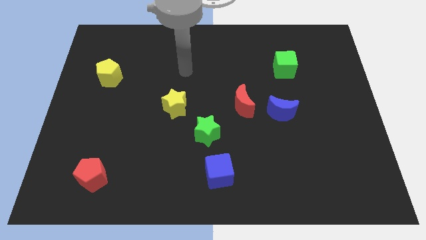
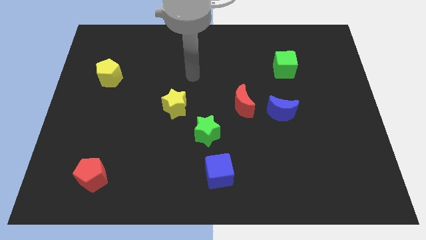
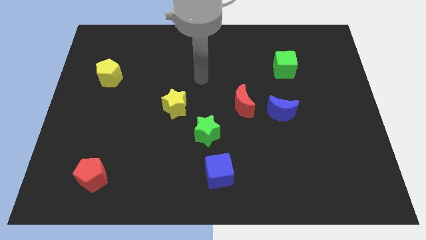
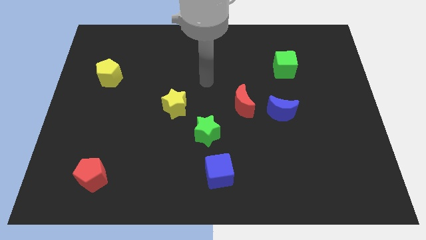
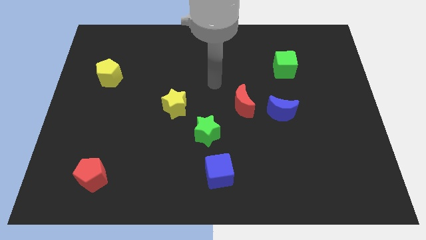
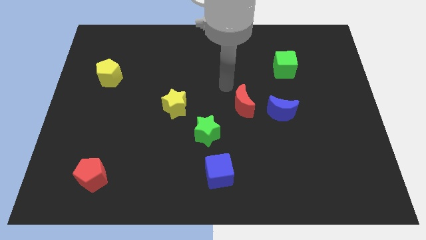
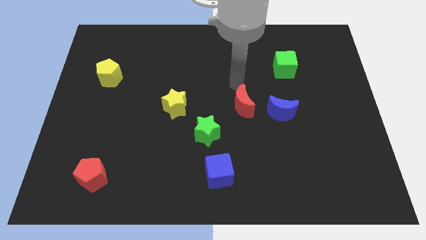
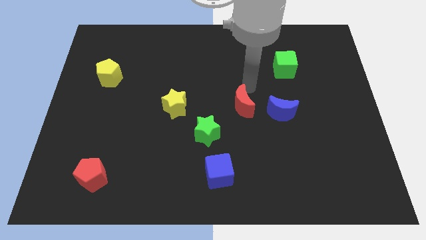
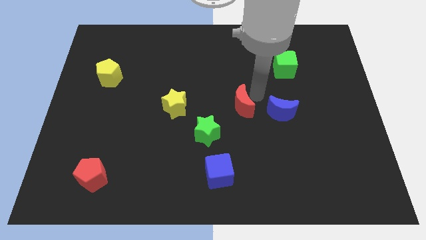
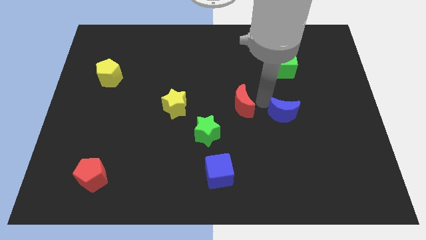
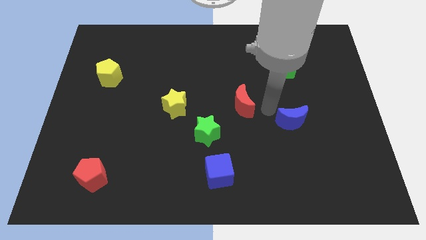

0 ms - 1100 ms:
separate the red moon from the blue moon

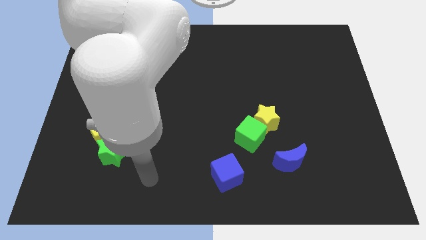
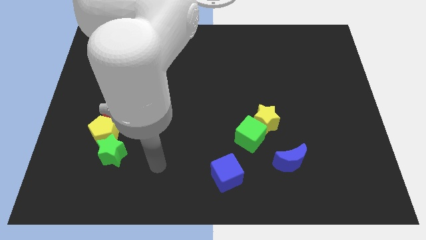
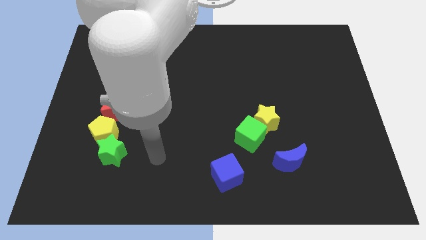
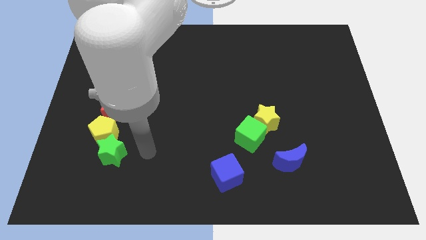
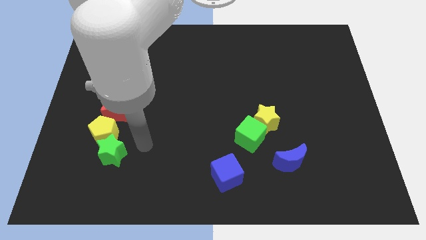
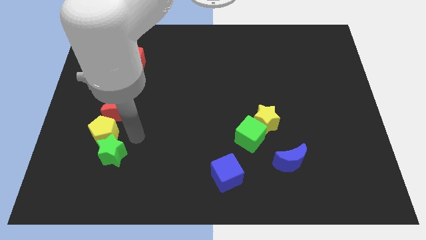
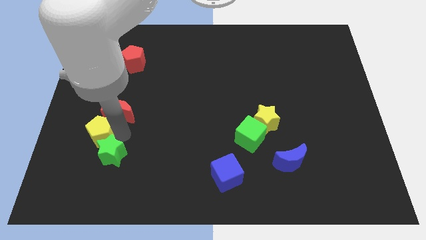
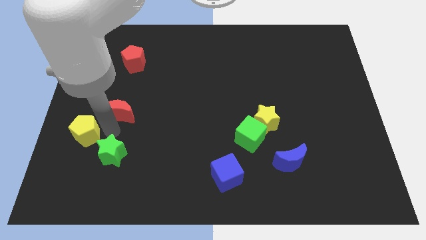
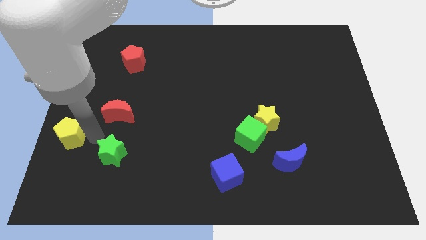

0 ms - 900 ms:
separate the green star from the yellow pentagon

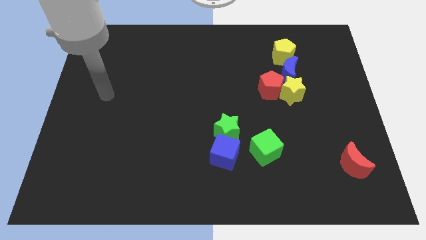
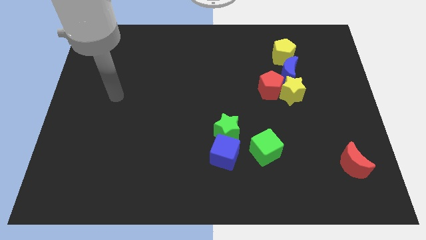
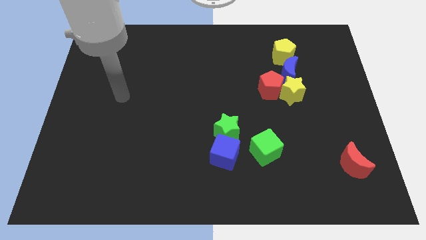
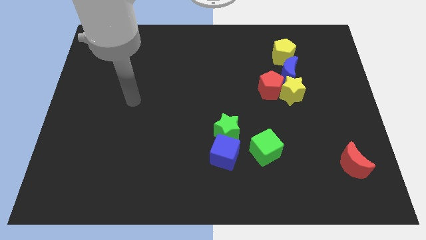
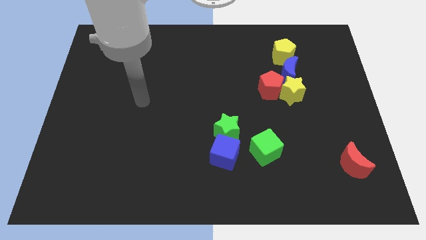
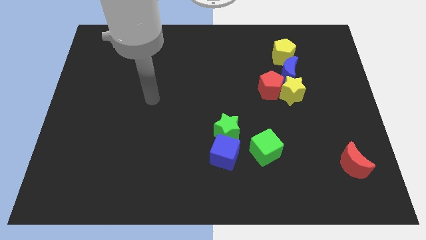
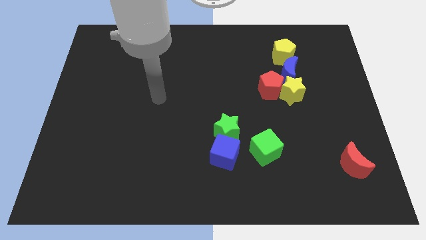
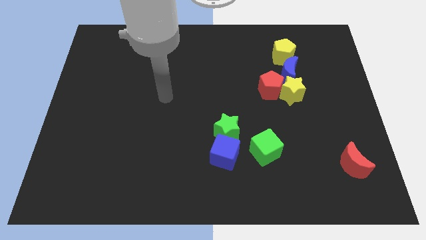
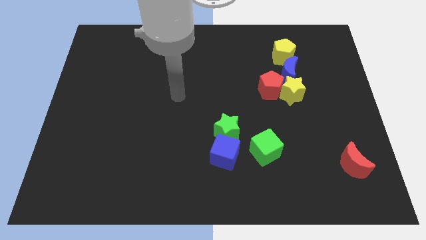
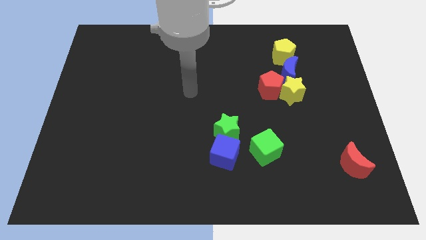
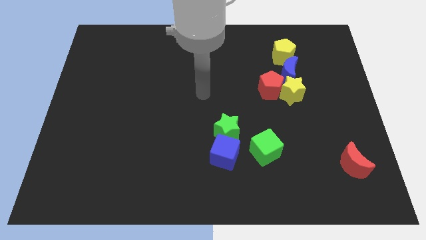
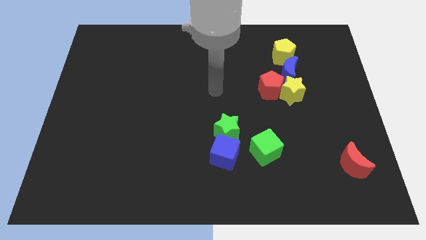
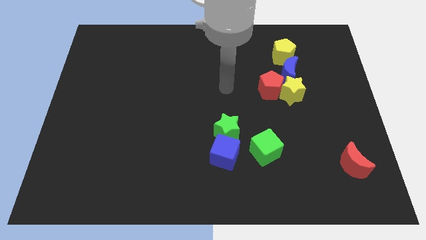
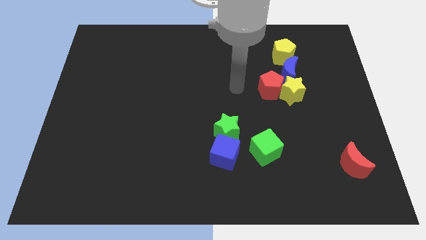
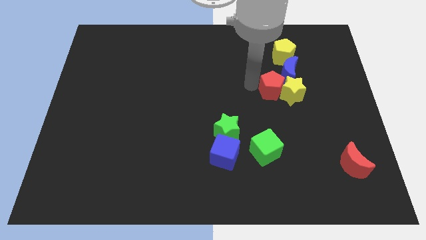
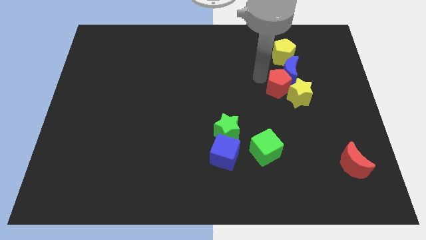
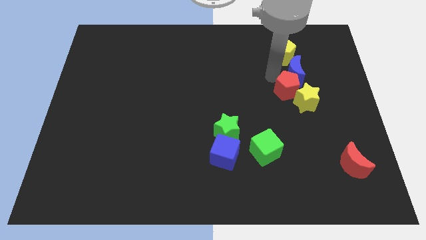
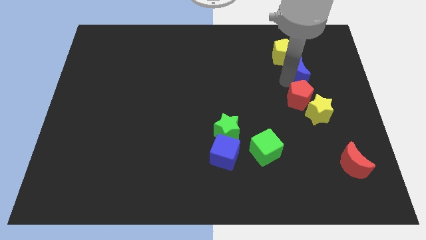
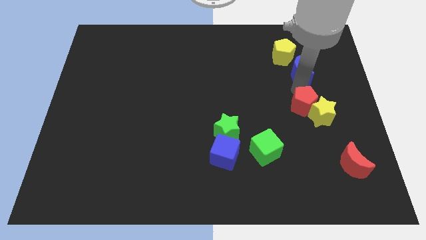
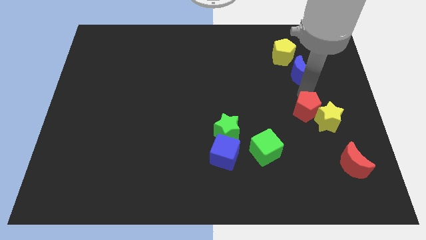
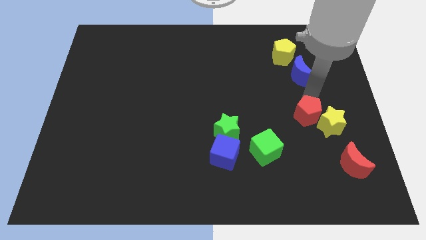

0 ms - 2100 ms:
separate the yellow star from the red pentagon and blue moon

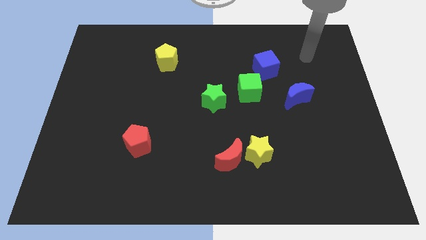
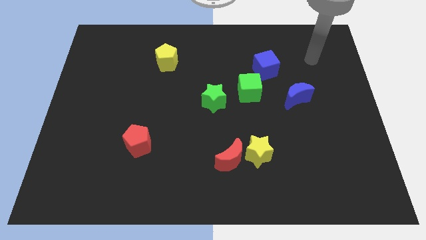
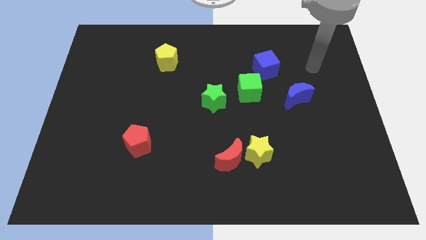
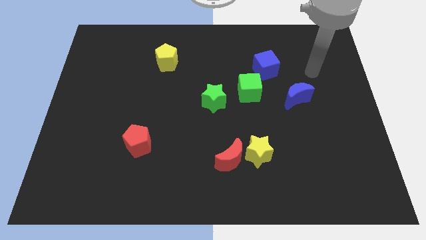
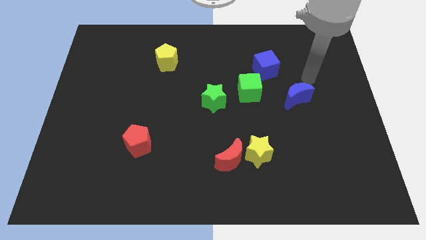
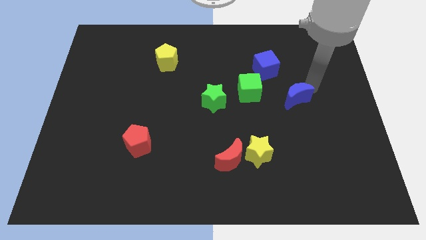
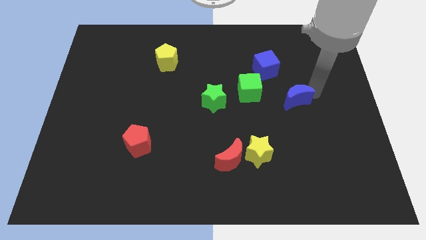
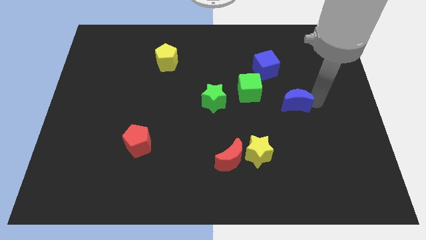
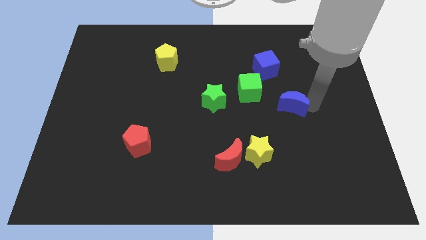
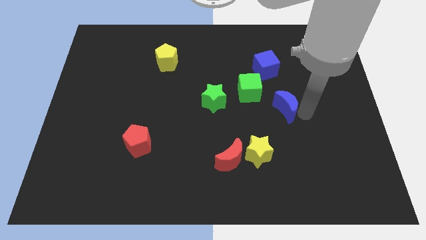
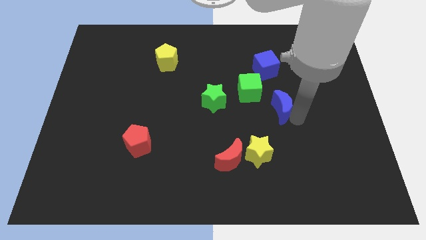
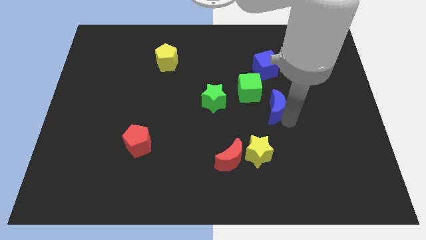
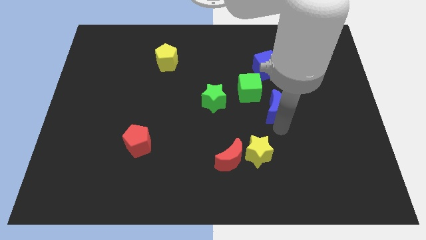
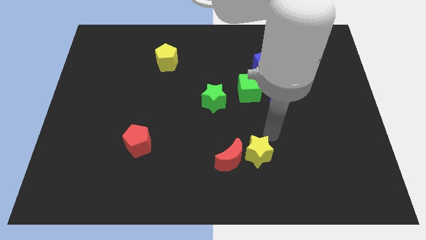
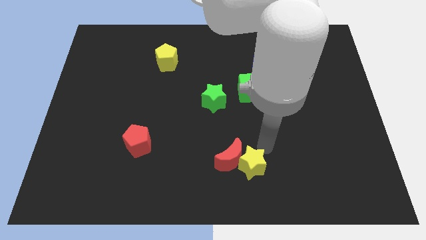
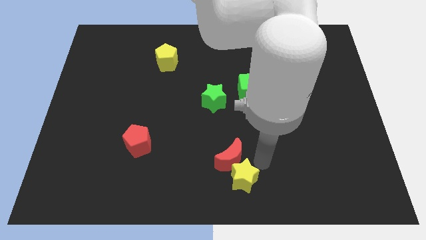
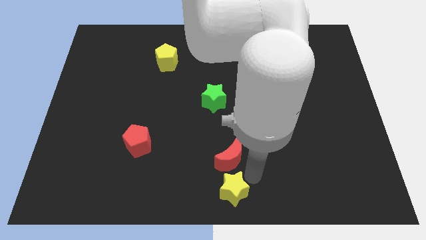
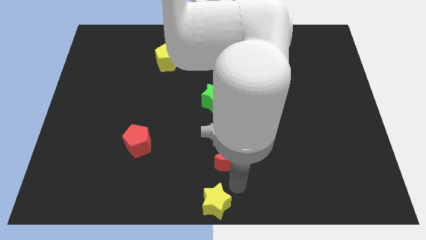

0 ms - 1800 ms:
move the red moon away from the yellow star

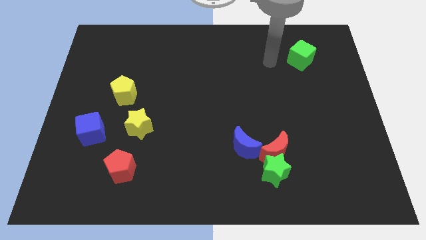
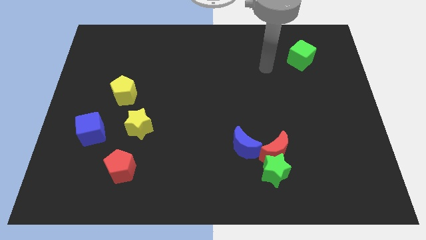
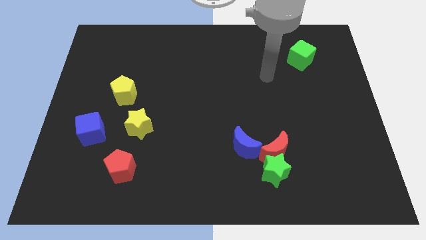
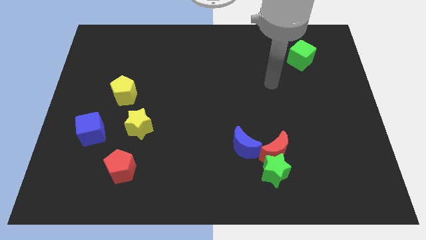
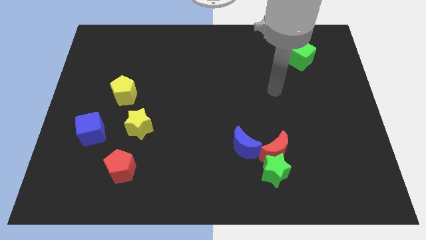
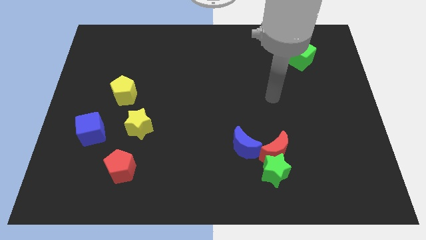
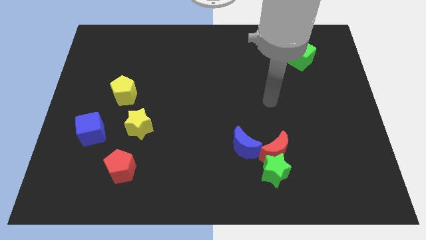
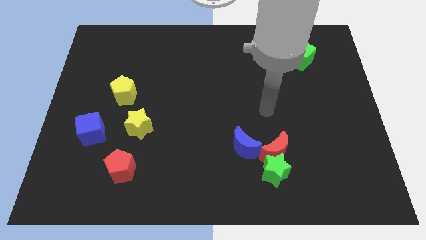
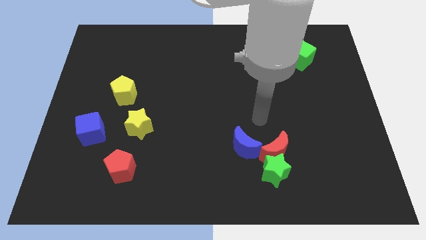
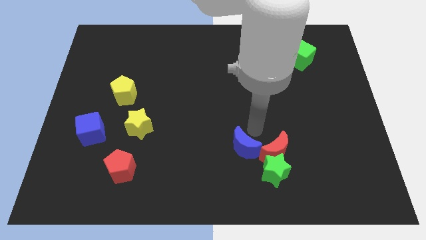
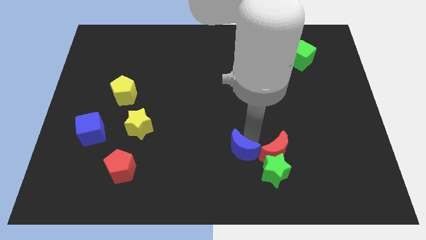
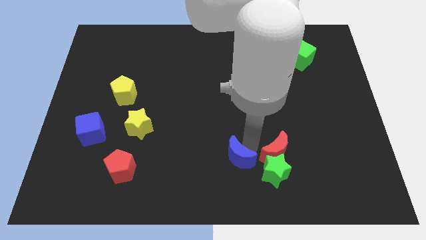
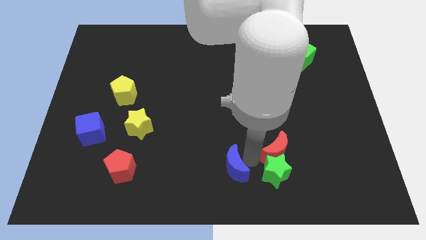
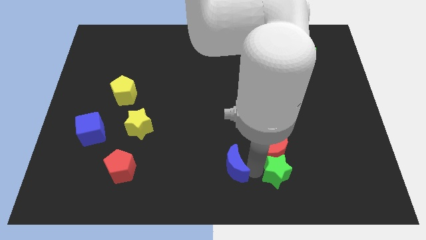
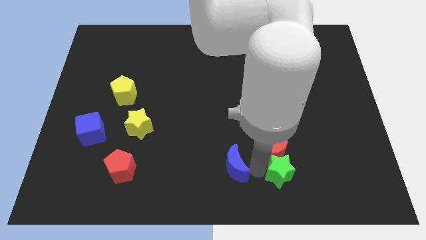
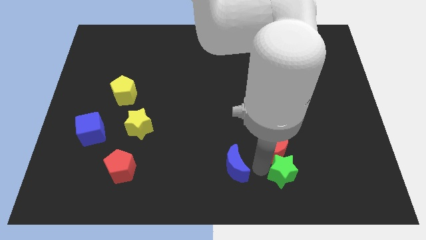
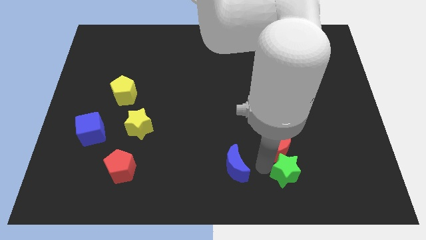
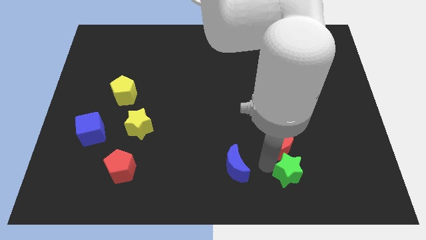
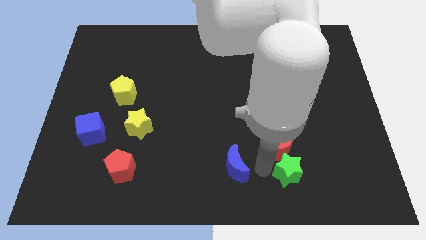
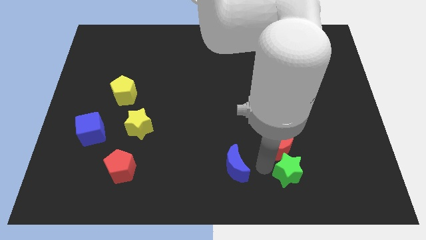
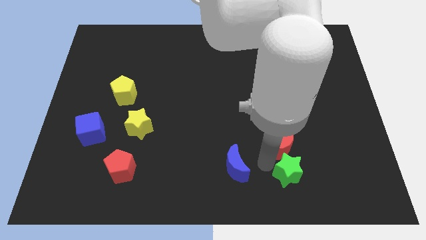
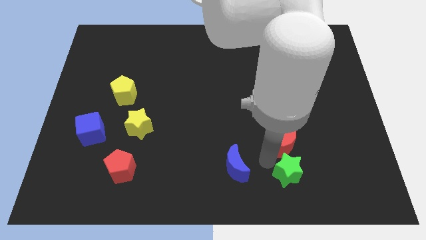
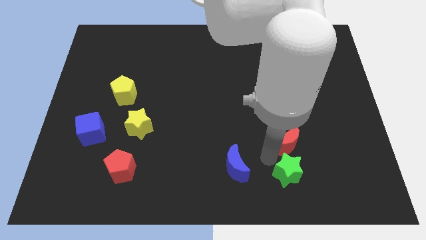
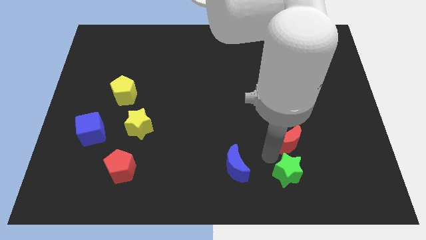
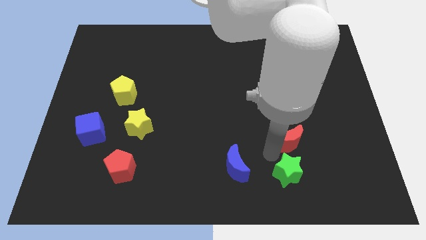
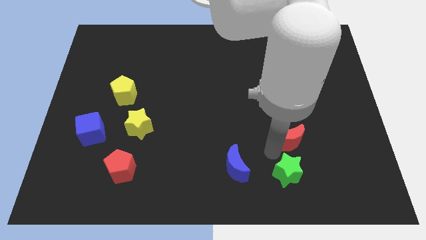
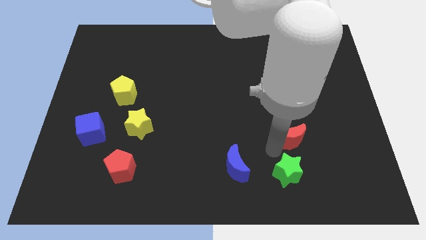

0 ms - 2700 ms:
move the red moon away from the green star and blue moon

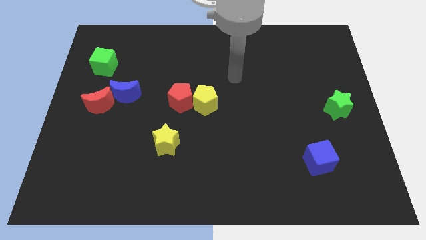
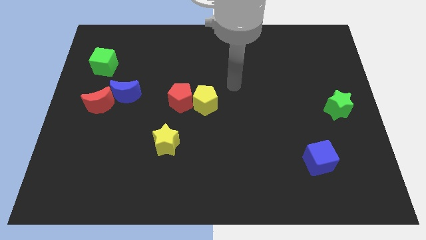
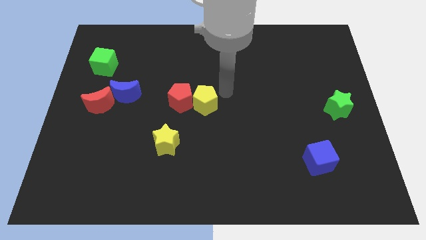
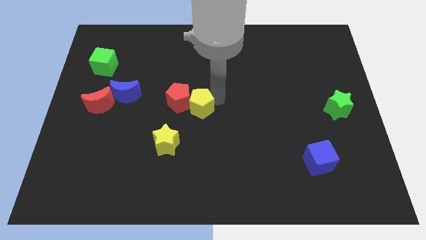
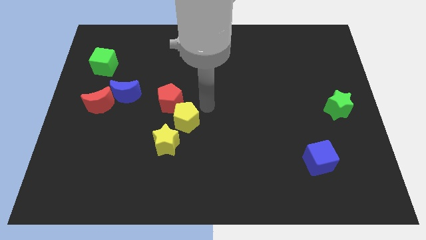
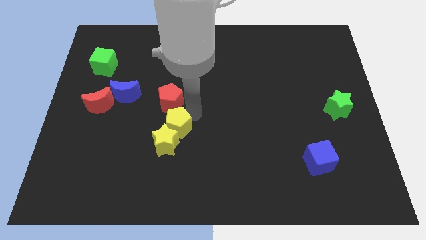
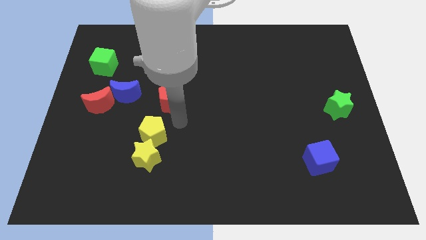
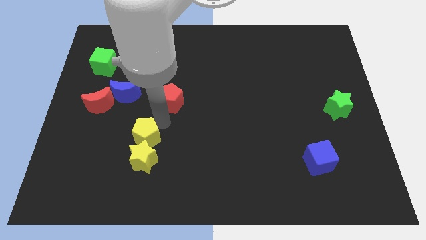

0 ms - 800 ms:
separate the red pentagon from the yellow pentagon
